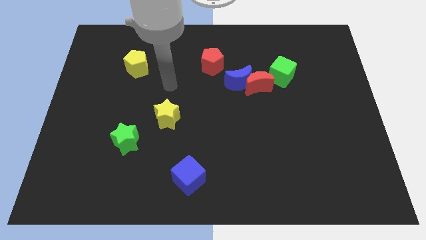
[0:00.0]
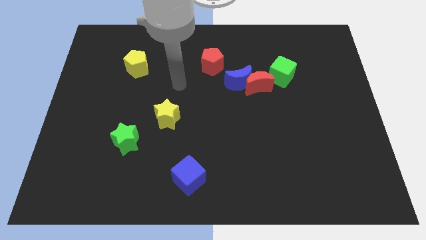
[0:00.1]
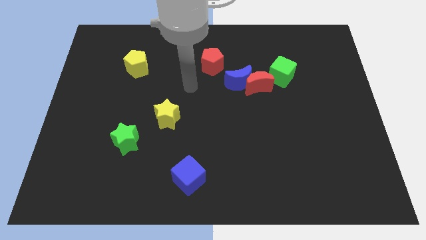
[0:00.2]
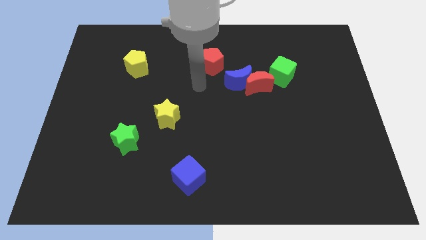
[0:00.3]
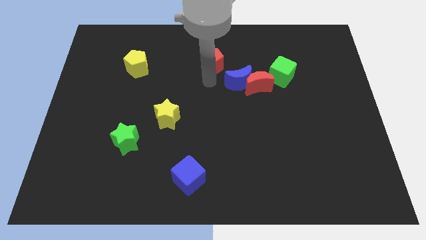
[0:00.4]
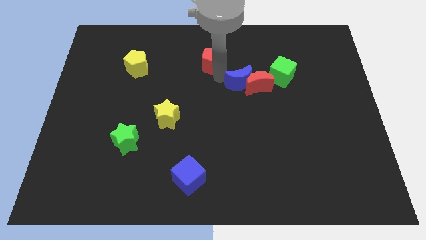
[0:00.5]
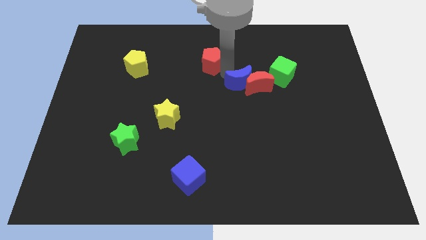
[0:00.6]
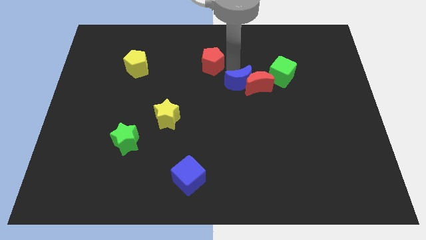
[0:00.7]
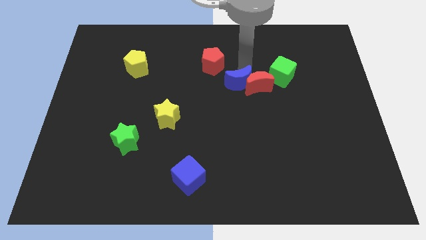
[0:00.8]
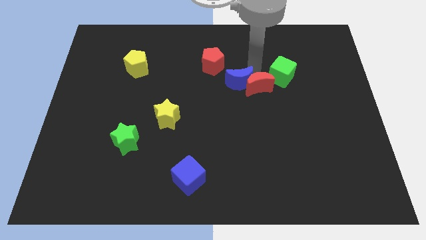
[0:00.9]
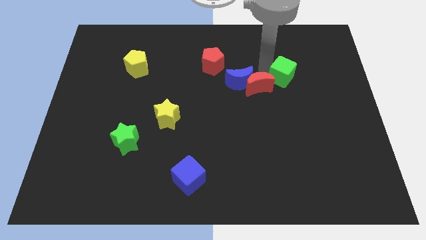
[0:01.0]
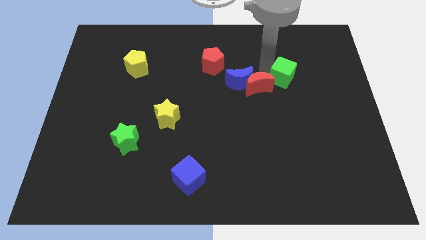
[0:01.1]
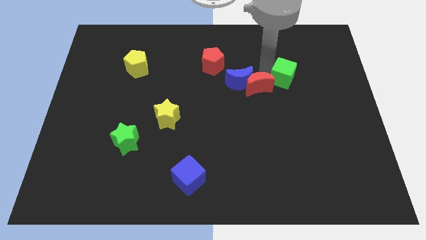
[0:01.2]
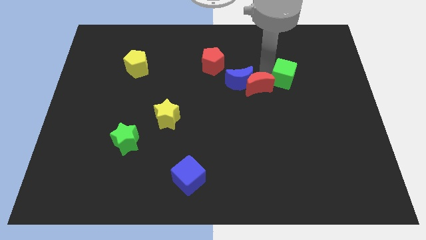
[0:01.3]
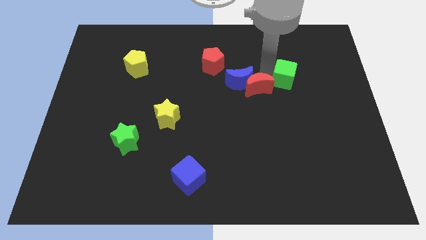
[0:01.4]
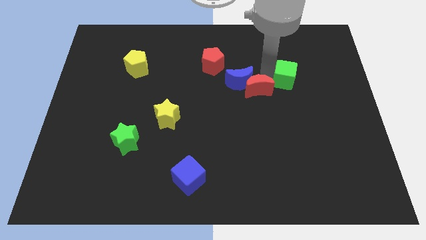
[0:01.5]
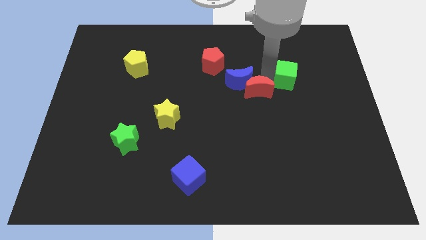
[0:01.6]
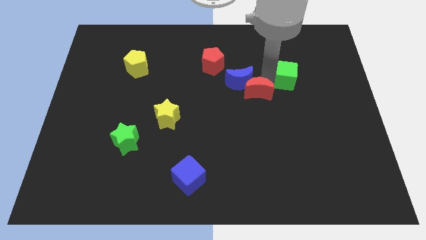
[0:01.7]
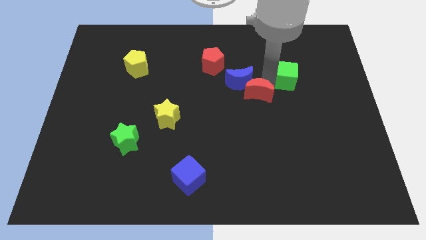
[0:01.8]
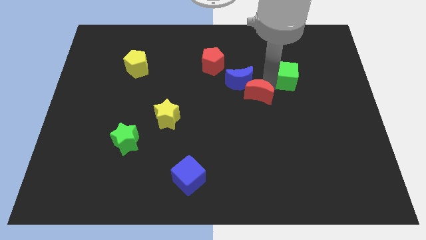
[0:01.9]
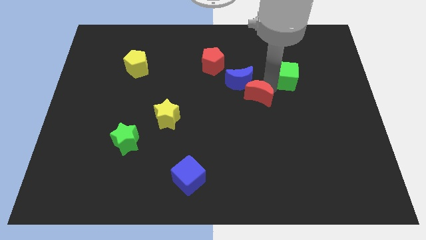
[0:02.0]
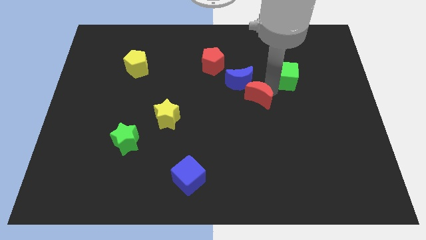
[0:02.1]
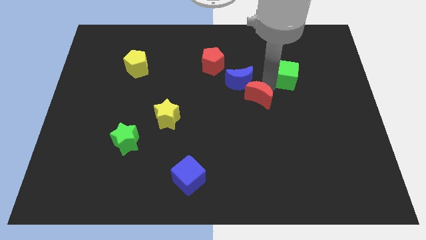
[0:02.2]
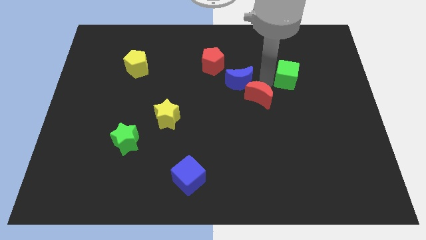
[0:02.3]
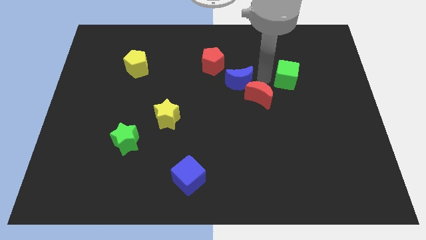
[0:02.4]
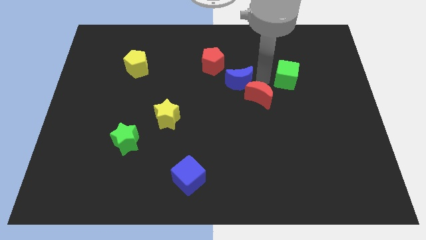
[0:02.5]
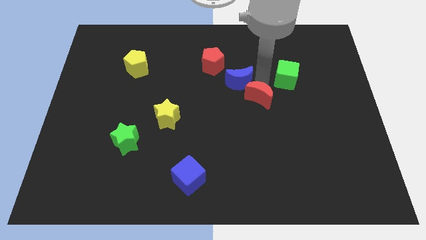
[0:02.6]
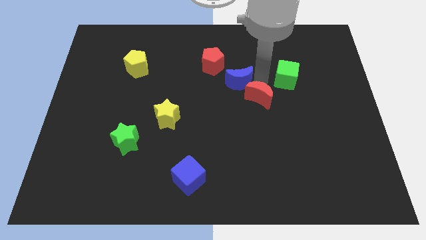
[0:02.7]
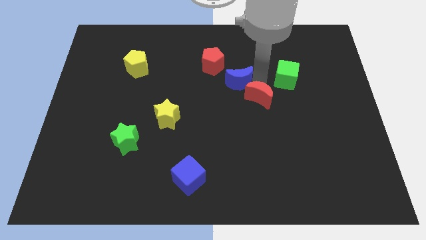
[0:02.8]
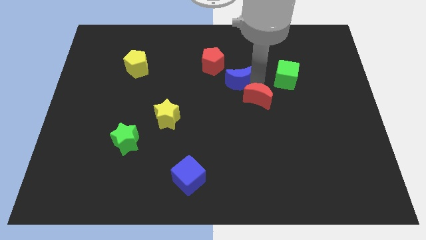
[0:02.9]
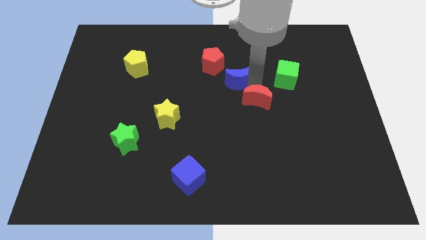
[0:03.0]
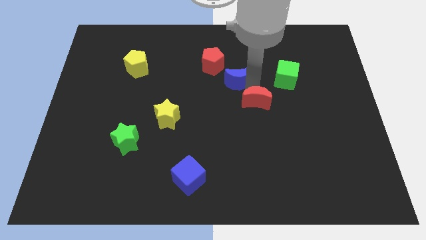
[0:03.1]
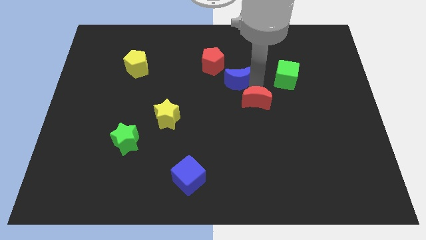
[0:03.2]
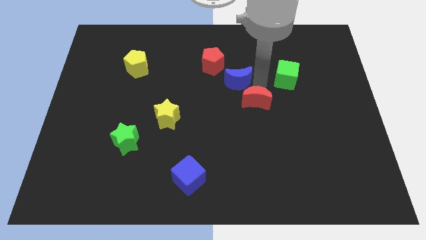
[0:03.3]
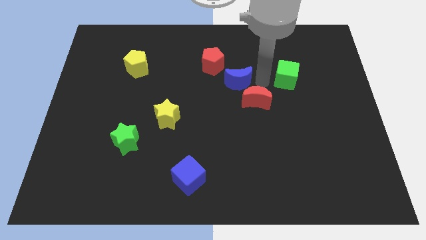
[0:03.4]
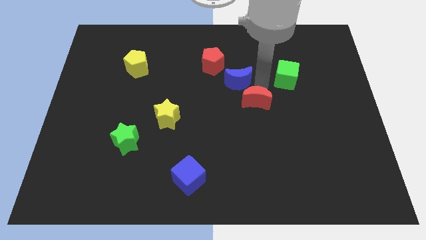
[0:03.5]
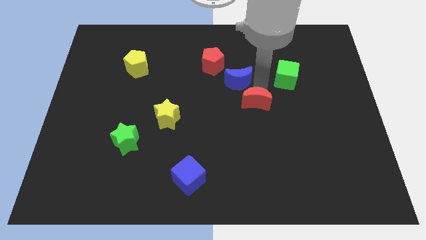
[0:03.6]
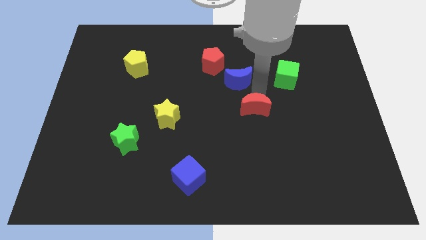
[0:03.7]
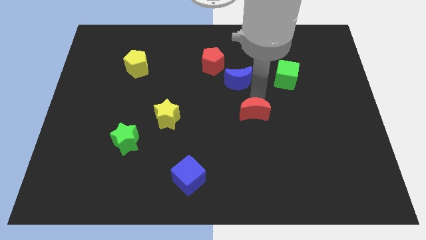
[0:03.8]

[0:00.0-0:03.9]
move the red moon away from the blue moon and green cube

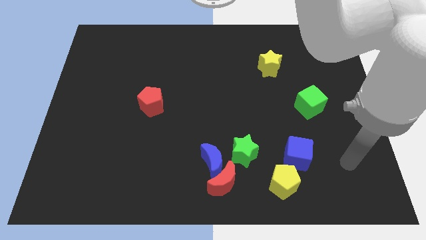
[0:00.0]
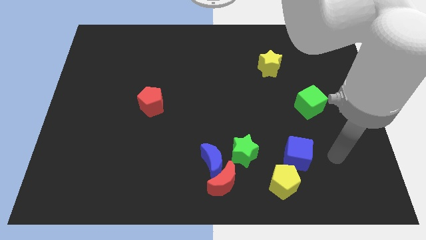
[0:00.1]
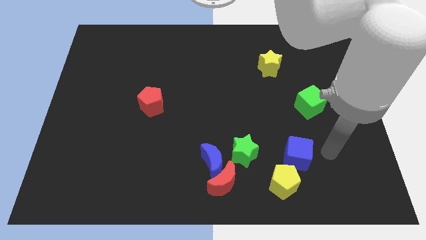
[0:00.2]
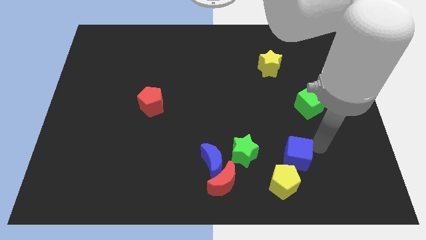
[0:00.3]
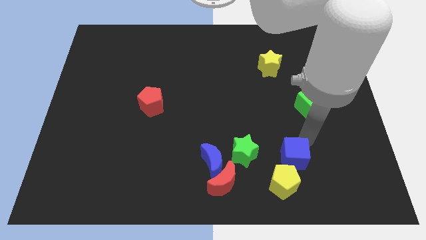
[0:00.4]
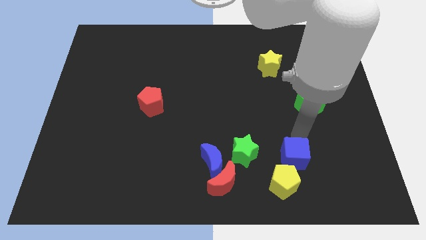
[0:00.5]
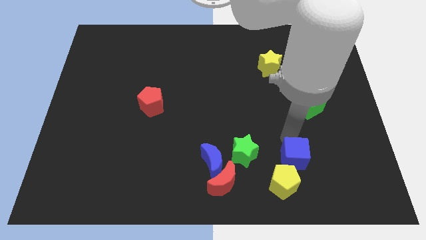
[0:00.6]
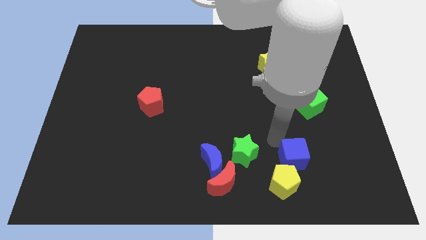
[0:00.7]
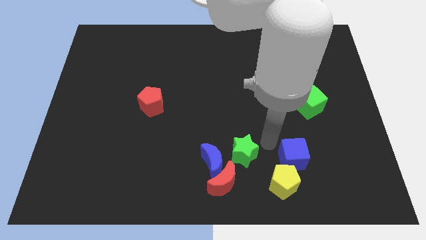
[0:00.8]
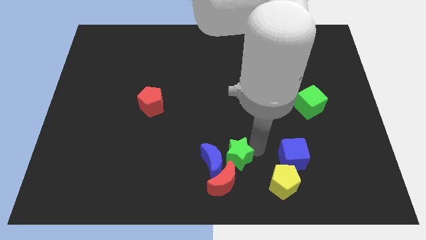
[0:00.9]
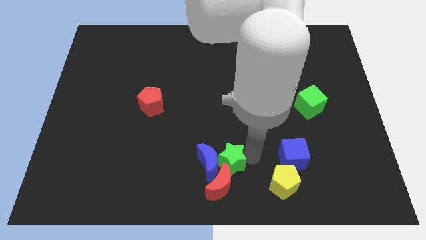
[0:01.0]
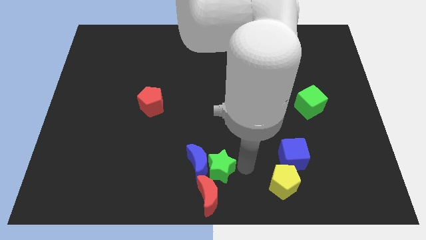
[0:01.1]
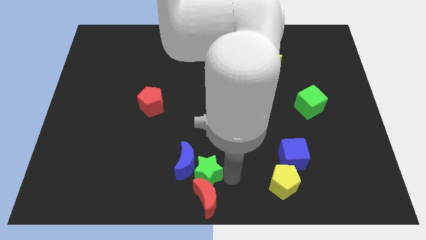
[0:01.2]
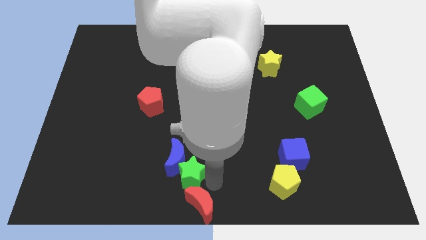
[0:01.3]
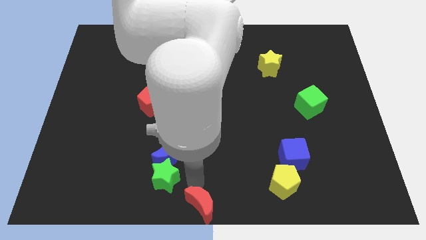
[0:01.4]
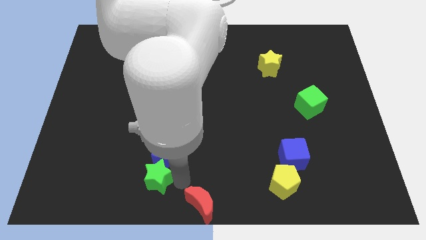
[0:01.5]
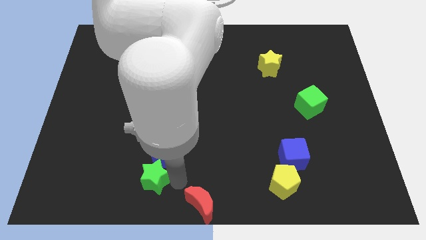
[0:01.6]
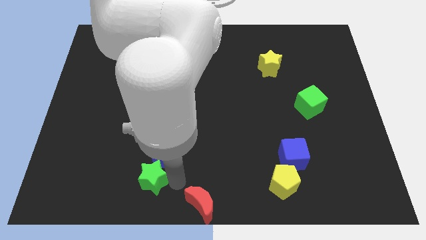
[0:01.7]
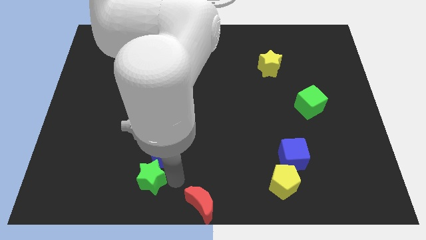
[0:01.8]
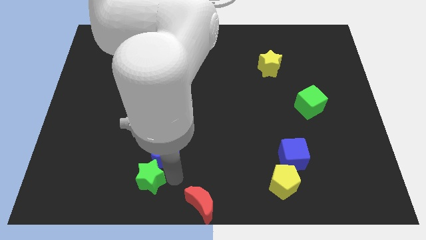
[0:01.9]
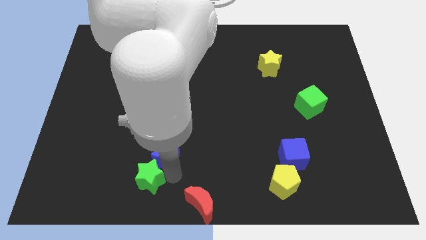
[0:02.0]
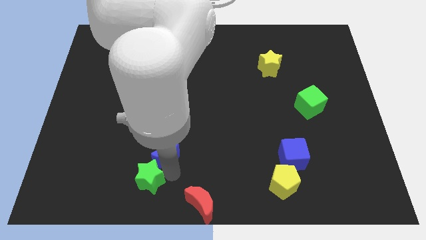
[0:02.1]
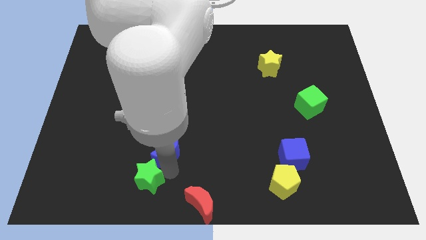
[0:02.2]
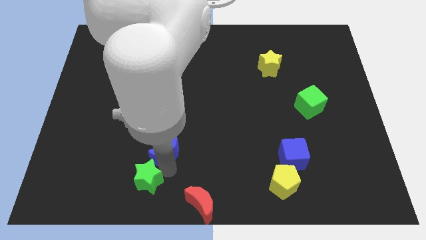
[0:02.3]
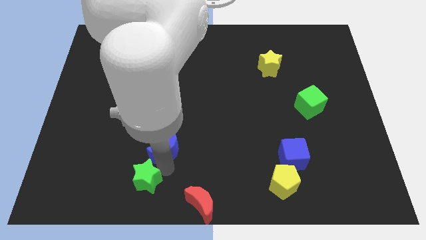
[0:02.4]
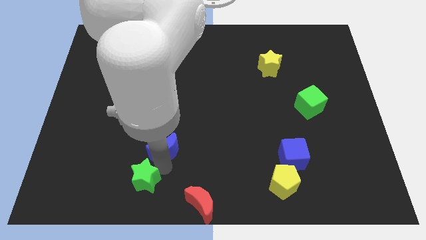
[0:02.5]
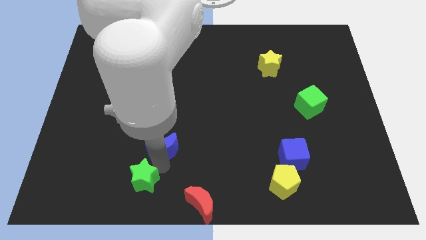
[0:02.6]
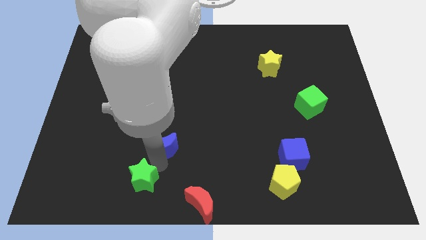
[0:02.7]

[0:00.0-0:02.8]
separate the blue moon from the red moon and green star

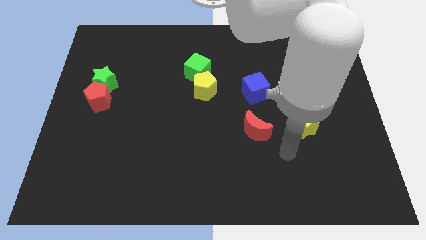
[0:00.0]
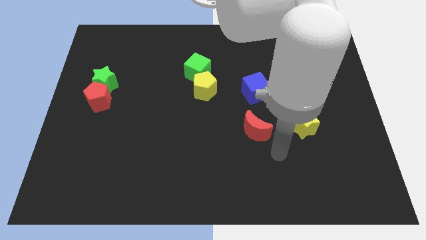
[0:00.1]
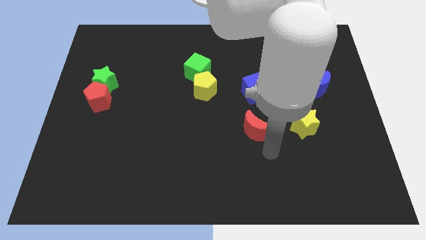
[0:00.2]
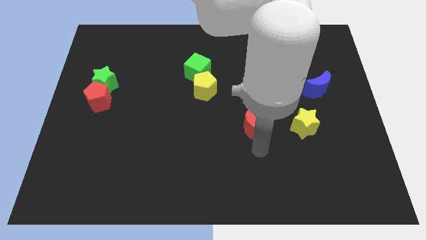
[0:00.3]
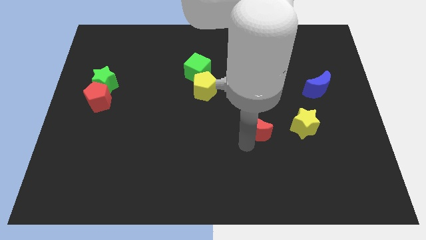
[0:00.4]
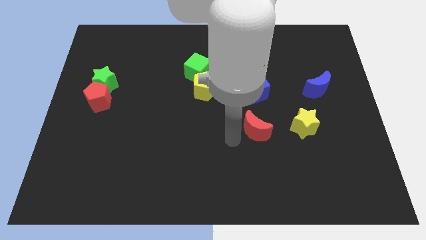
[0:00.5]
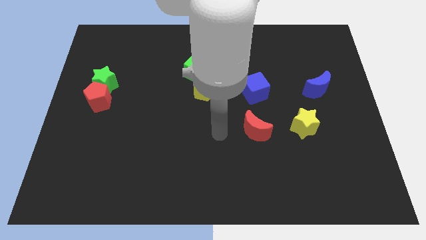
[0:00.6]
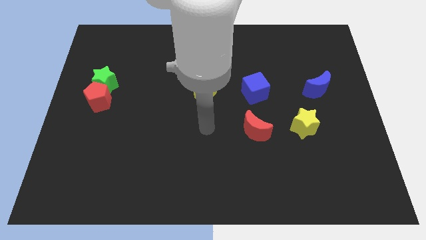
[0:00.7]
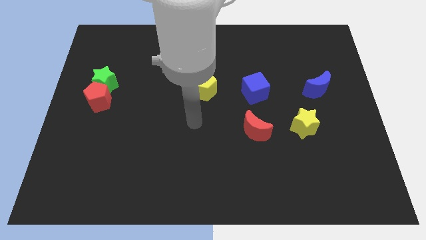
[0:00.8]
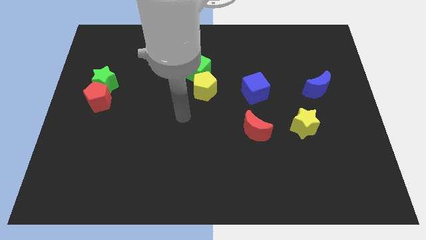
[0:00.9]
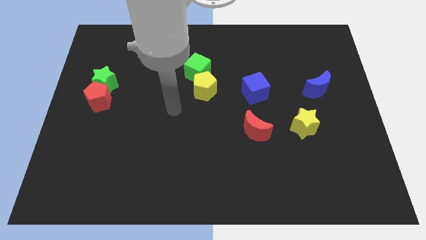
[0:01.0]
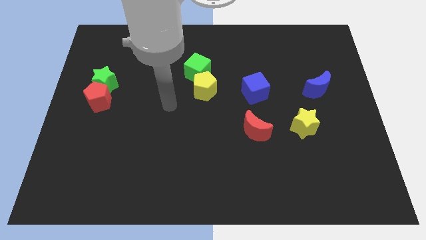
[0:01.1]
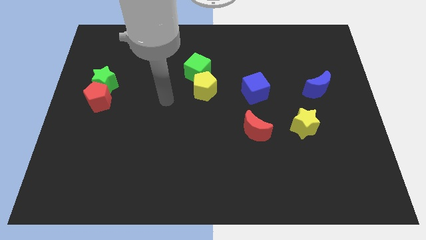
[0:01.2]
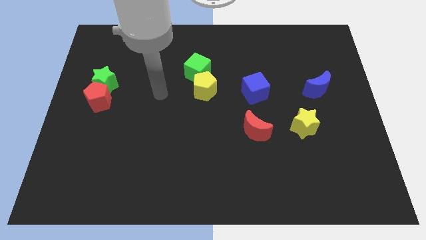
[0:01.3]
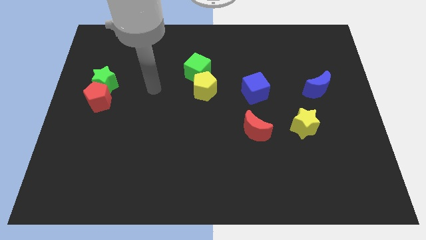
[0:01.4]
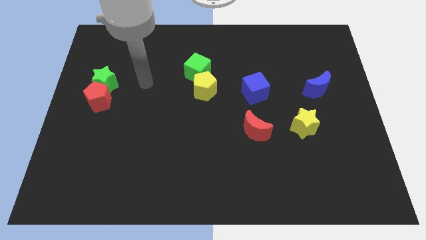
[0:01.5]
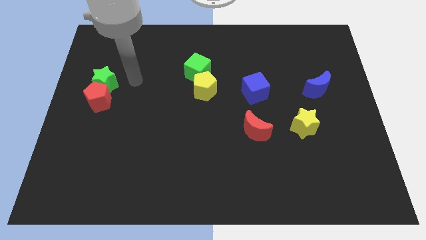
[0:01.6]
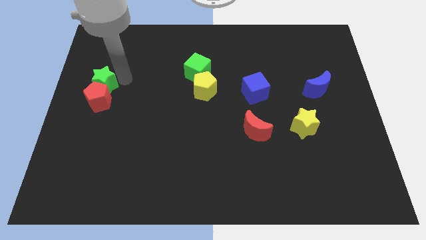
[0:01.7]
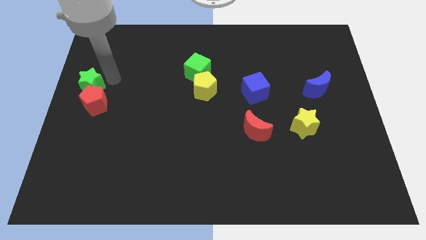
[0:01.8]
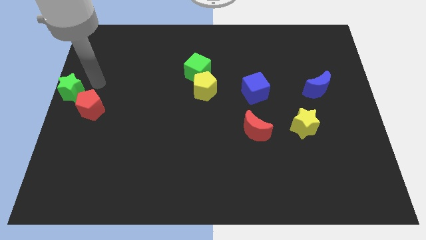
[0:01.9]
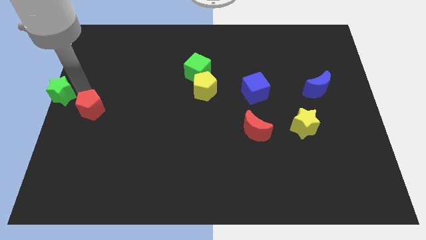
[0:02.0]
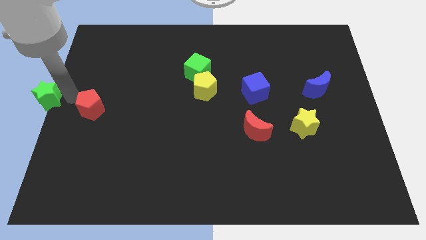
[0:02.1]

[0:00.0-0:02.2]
pull the red pentagon apart from the green star

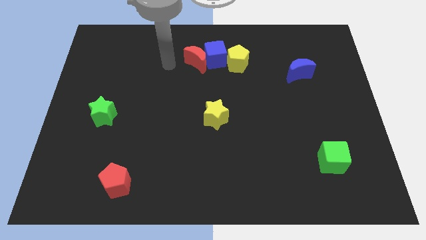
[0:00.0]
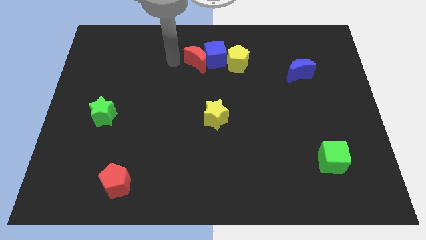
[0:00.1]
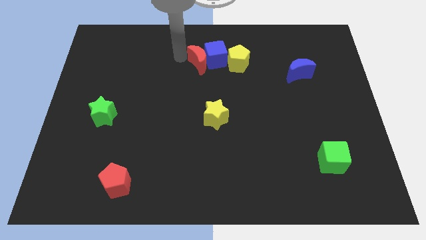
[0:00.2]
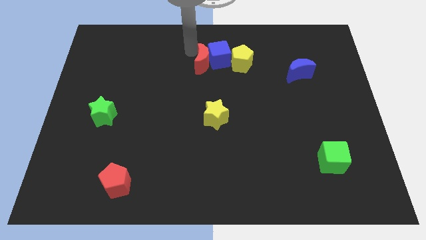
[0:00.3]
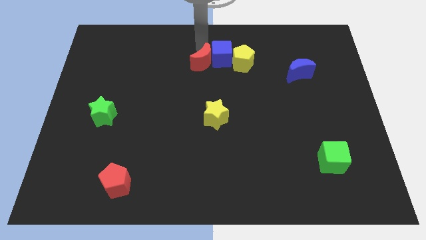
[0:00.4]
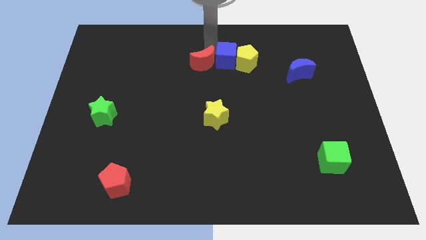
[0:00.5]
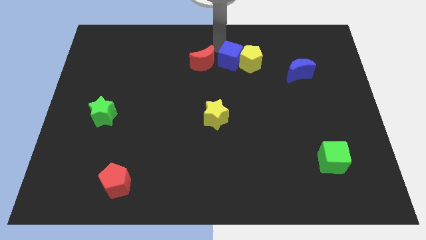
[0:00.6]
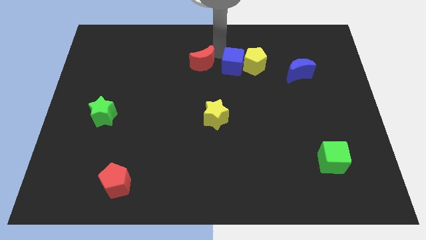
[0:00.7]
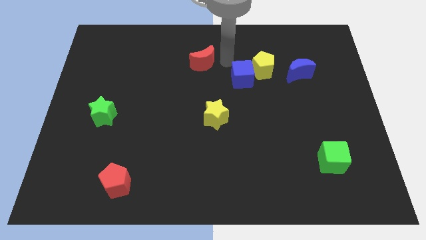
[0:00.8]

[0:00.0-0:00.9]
separate the red moon from the blue cube
